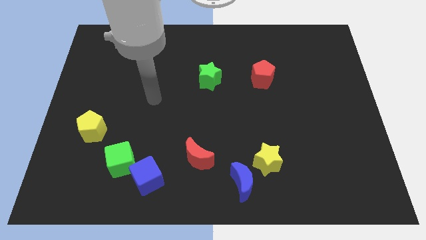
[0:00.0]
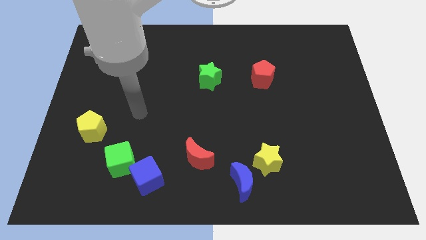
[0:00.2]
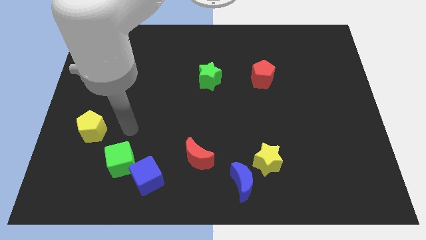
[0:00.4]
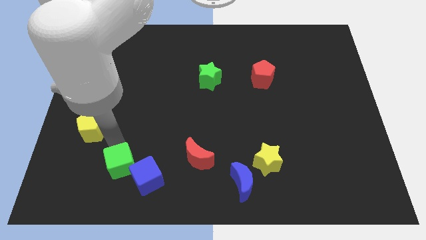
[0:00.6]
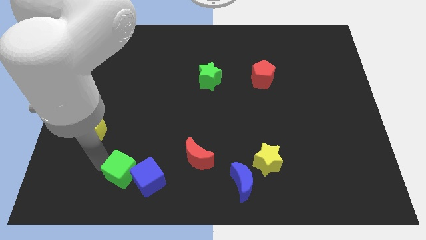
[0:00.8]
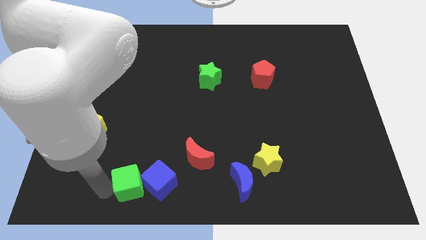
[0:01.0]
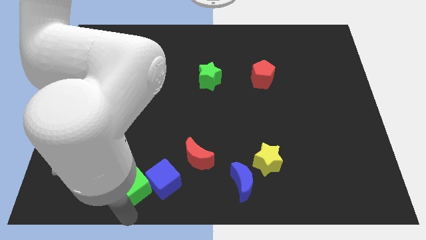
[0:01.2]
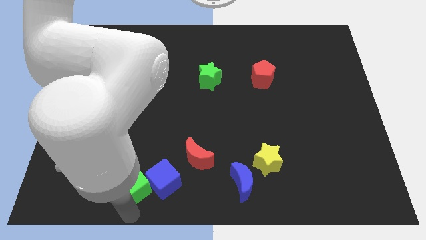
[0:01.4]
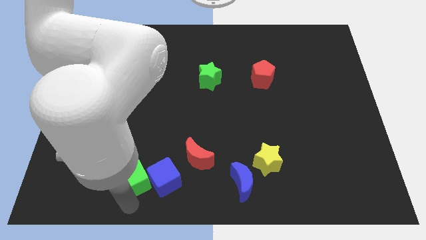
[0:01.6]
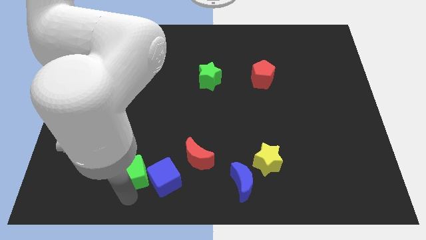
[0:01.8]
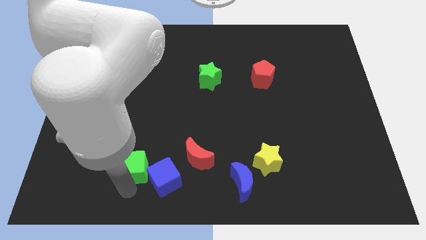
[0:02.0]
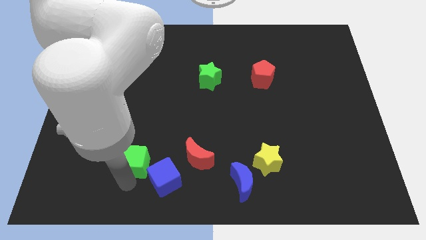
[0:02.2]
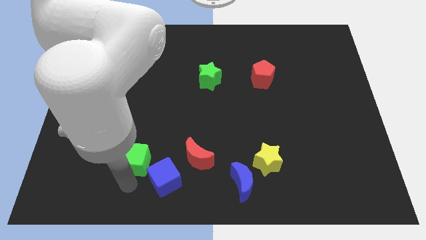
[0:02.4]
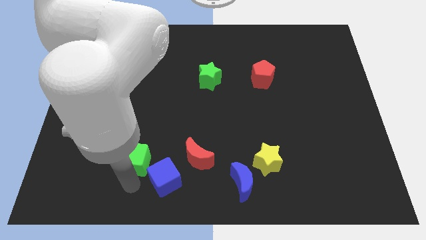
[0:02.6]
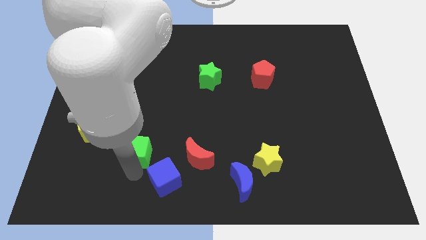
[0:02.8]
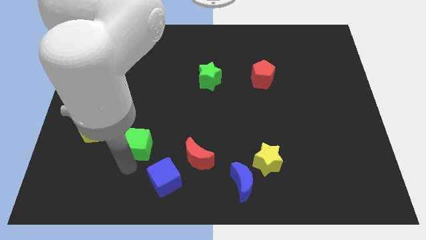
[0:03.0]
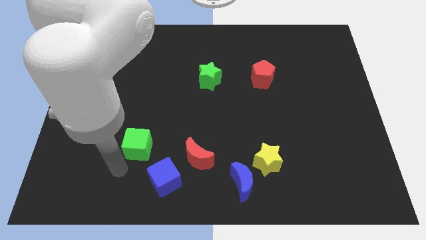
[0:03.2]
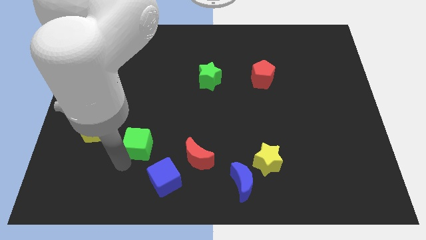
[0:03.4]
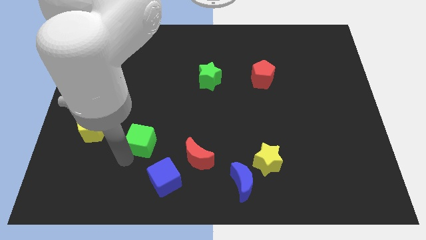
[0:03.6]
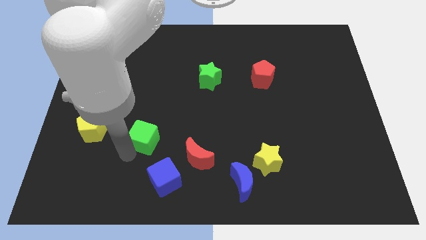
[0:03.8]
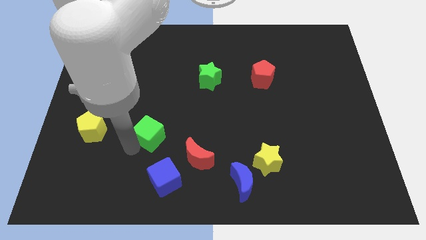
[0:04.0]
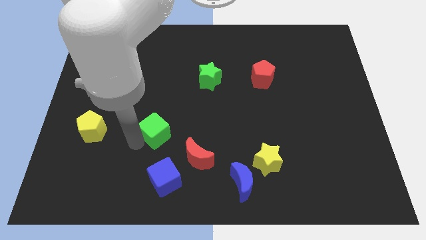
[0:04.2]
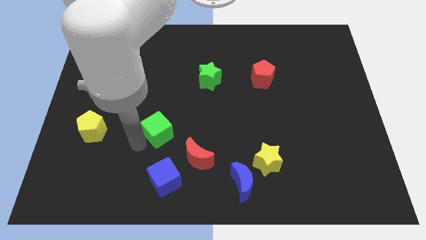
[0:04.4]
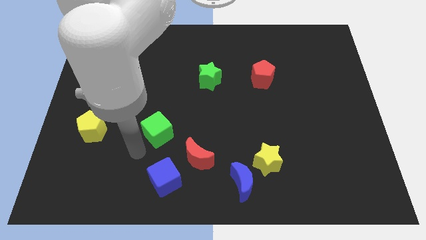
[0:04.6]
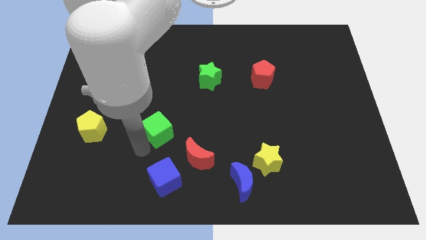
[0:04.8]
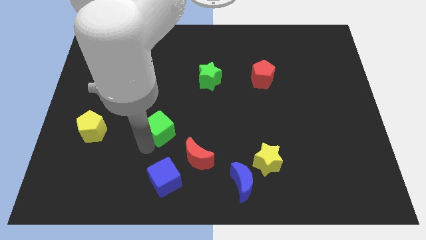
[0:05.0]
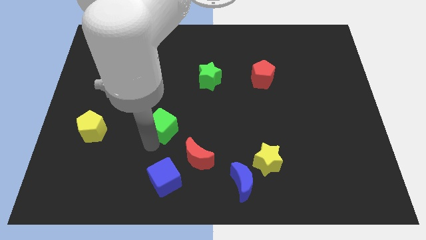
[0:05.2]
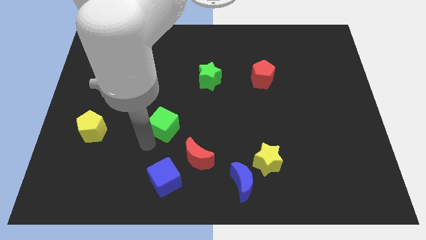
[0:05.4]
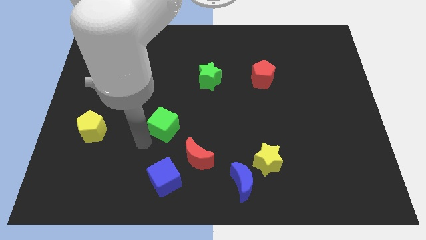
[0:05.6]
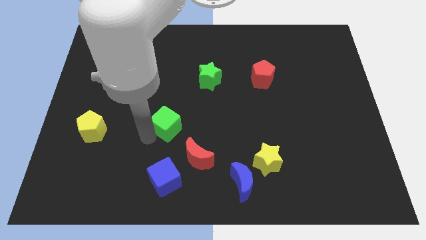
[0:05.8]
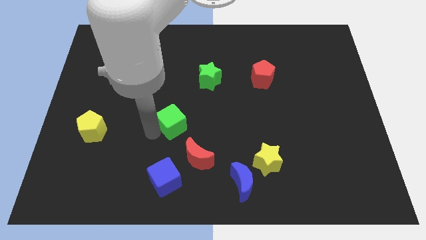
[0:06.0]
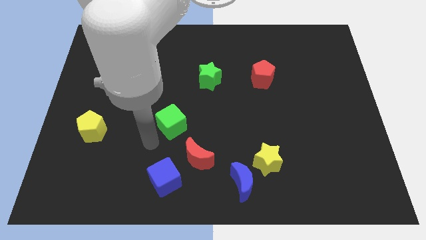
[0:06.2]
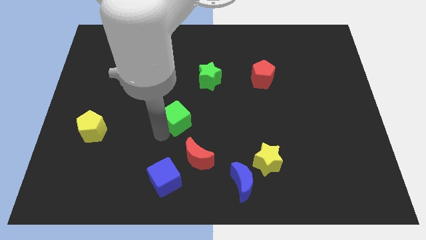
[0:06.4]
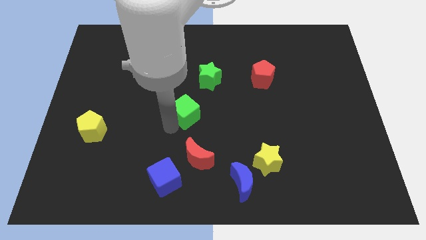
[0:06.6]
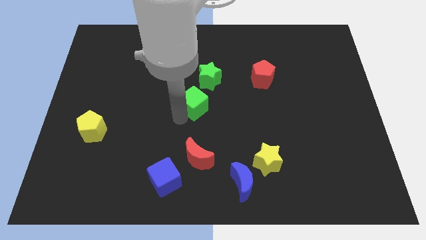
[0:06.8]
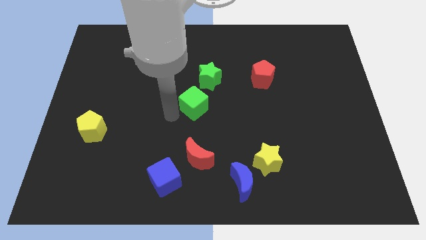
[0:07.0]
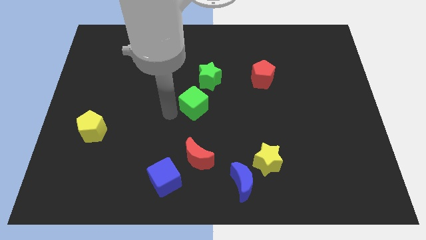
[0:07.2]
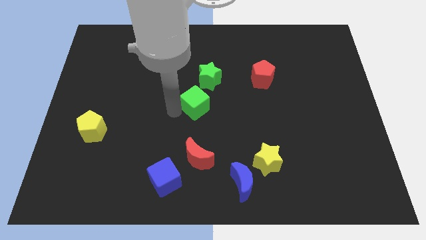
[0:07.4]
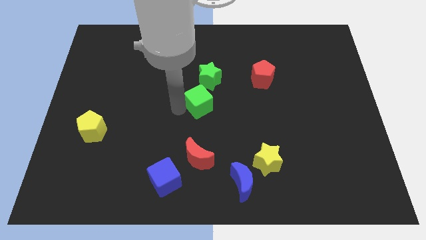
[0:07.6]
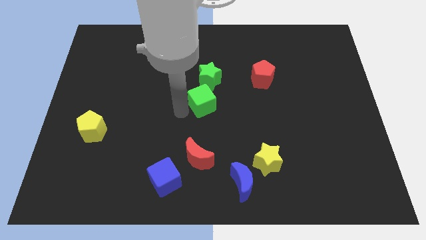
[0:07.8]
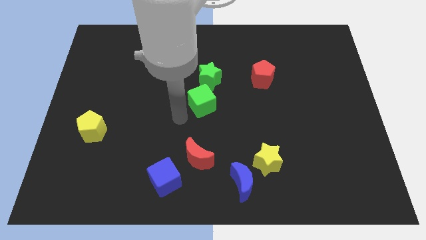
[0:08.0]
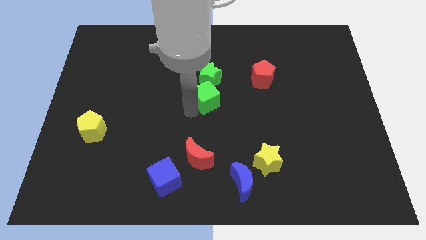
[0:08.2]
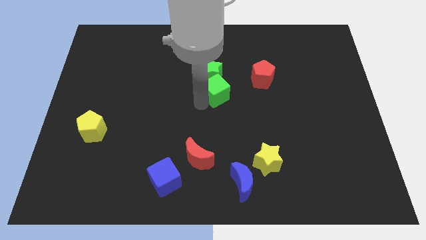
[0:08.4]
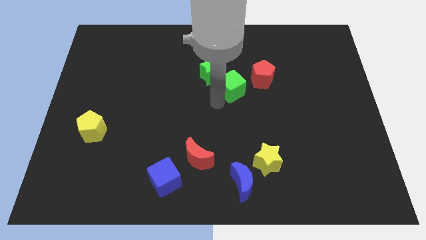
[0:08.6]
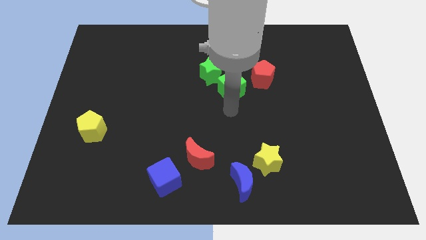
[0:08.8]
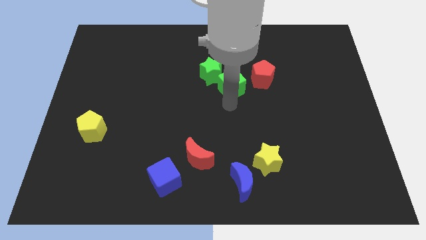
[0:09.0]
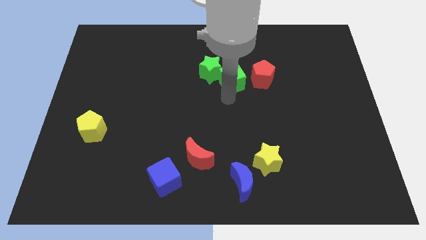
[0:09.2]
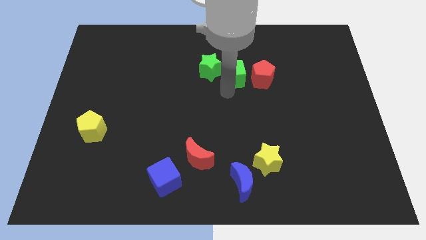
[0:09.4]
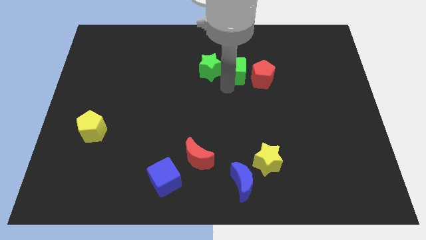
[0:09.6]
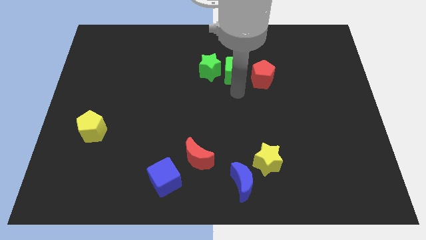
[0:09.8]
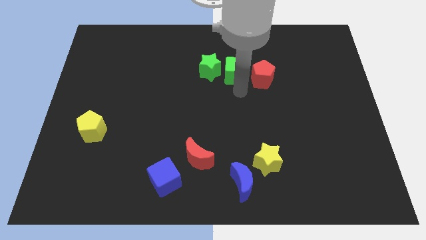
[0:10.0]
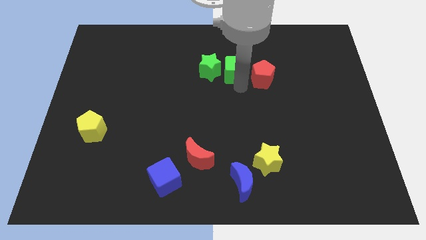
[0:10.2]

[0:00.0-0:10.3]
slide the green cube diagonally up and to the right of the green star

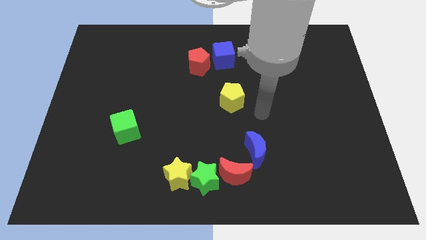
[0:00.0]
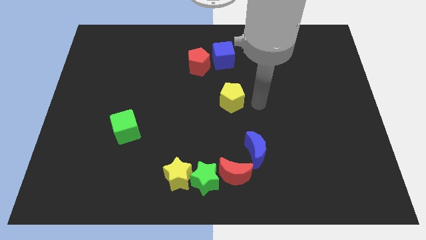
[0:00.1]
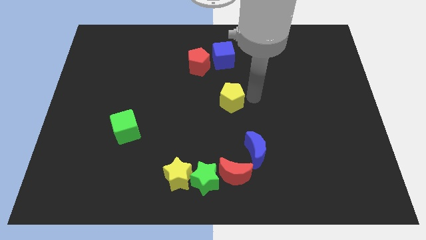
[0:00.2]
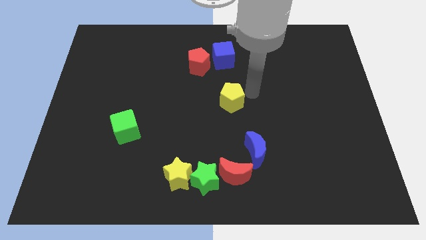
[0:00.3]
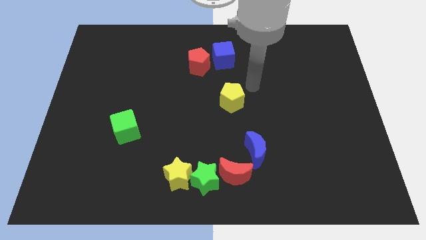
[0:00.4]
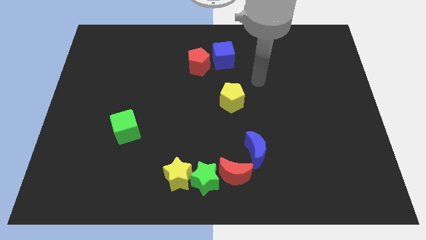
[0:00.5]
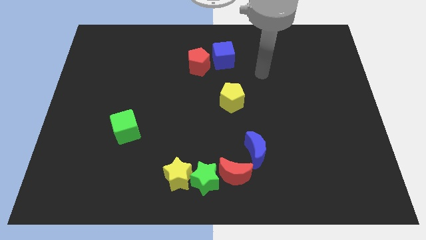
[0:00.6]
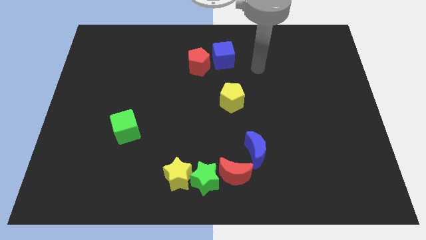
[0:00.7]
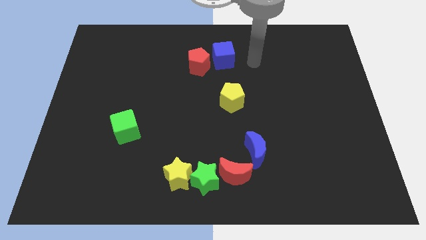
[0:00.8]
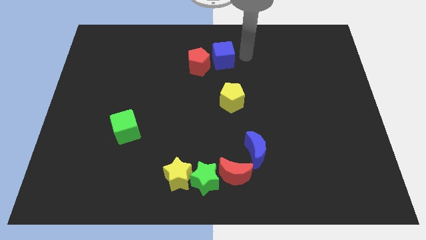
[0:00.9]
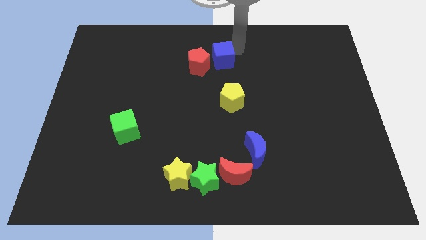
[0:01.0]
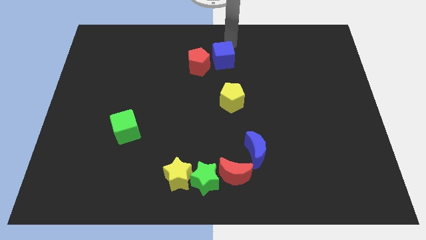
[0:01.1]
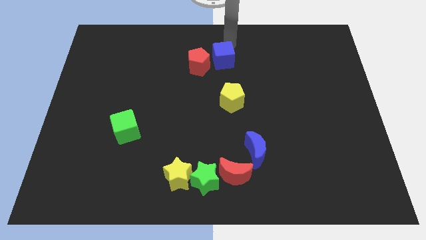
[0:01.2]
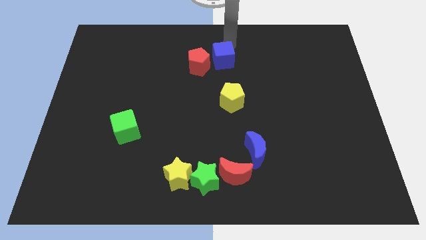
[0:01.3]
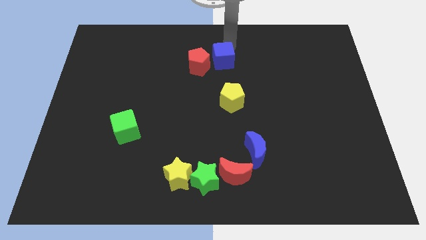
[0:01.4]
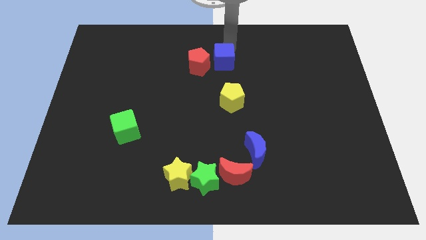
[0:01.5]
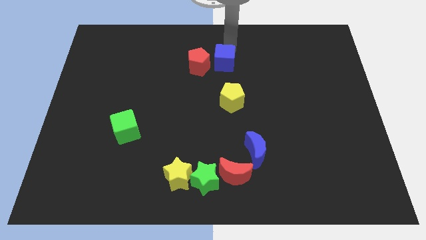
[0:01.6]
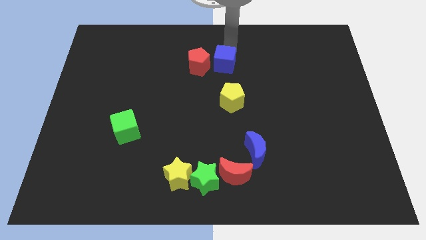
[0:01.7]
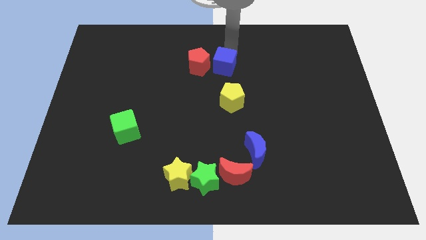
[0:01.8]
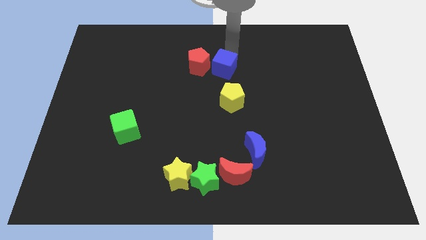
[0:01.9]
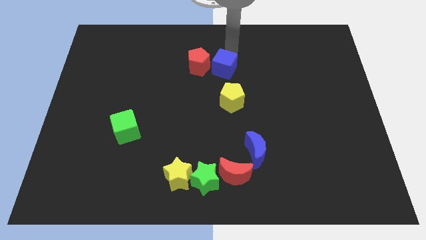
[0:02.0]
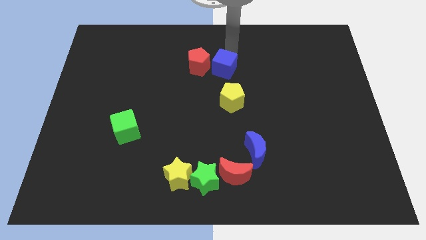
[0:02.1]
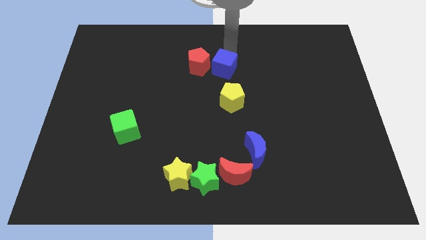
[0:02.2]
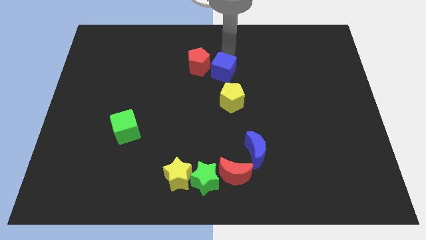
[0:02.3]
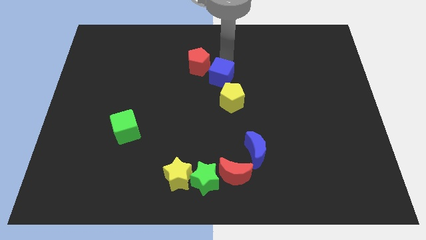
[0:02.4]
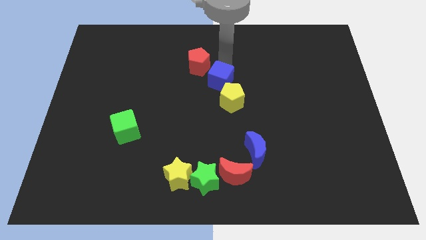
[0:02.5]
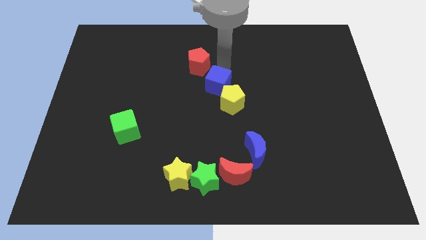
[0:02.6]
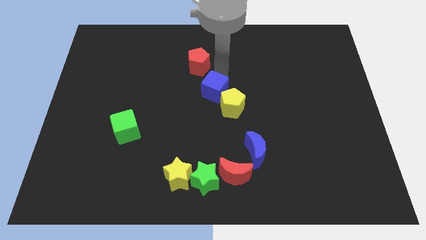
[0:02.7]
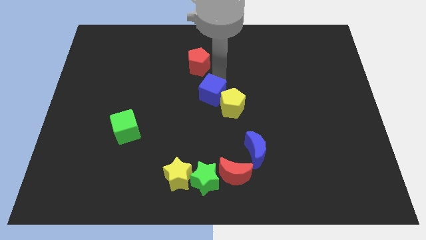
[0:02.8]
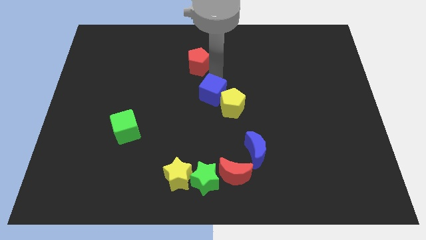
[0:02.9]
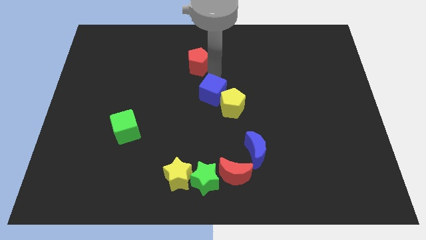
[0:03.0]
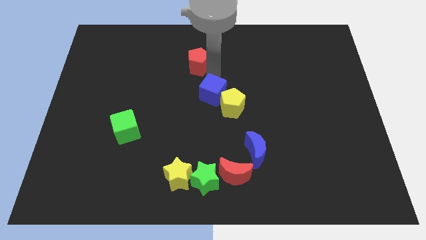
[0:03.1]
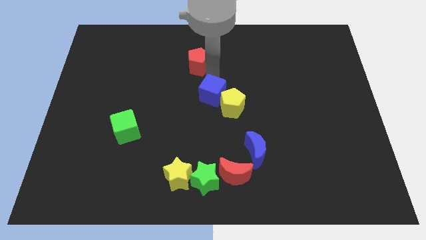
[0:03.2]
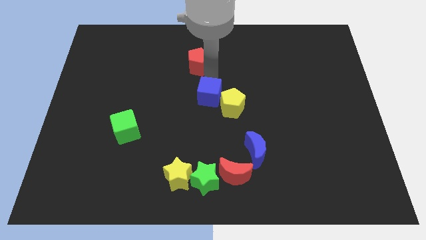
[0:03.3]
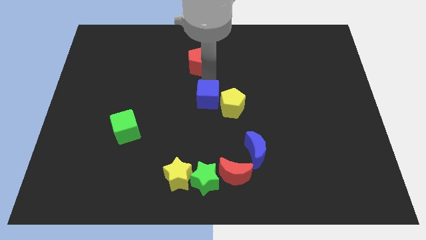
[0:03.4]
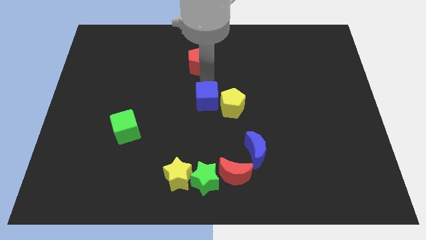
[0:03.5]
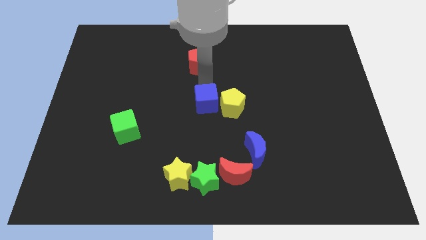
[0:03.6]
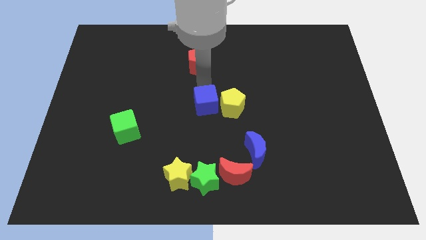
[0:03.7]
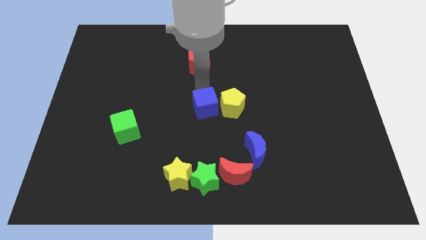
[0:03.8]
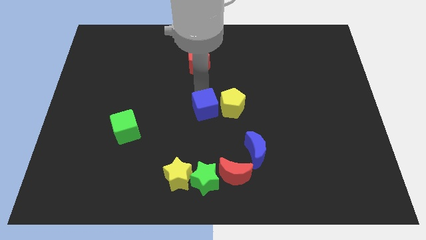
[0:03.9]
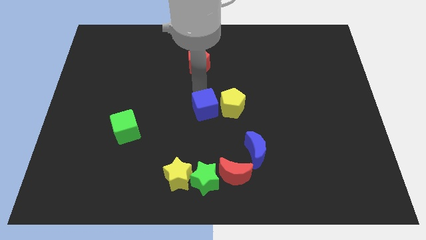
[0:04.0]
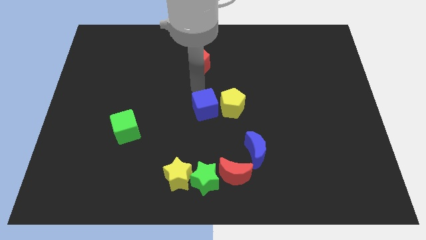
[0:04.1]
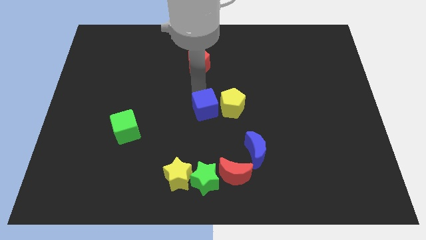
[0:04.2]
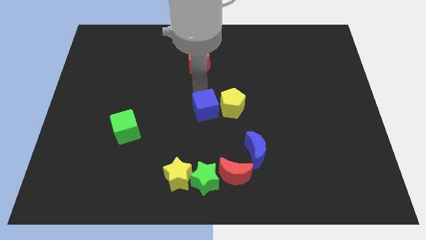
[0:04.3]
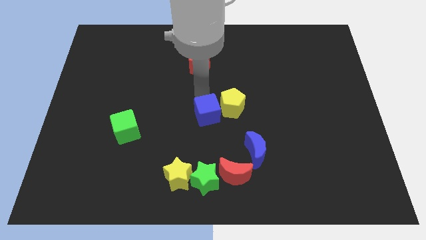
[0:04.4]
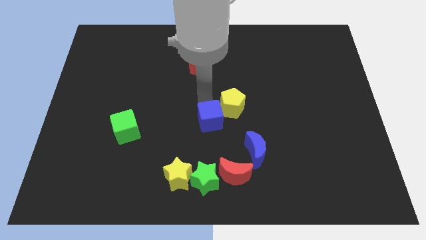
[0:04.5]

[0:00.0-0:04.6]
move the blue cube above the green star
